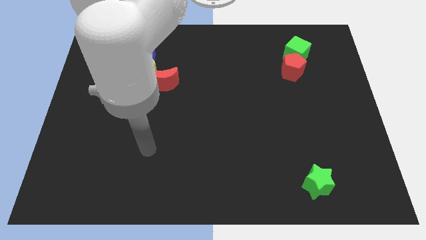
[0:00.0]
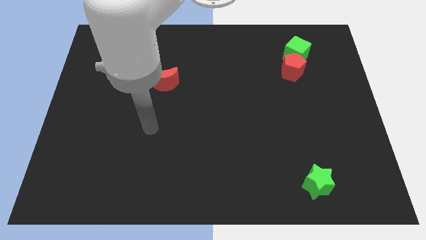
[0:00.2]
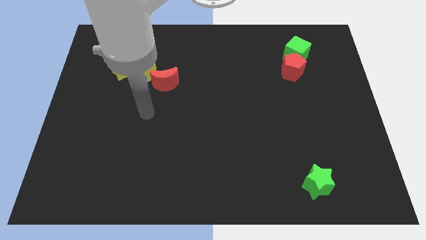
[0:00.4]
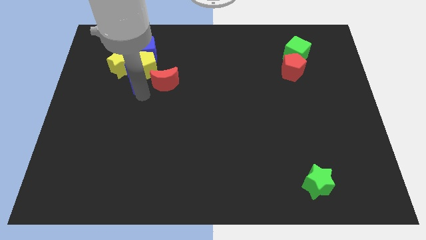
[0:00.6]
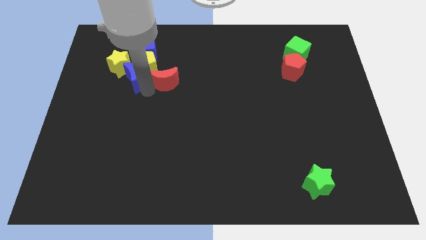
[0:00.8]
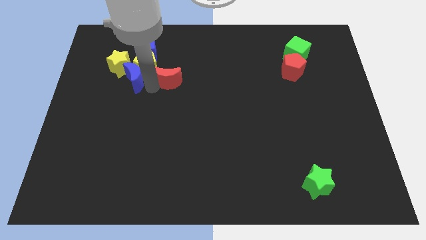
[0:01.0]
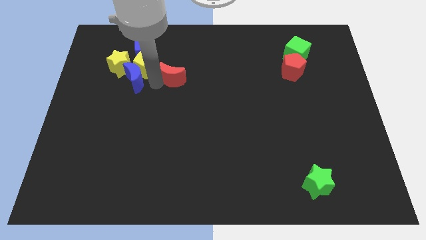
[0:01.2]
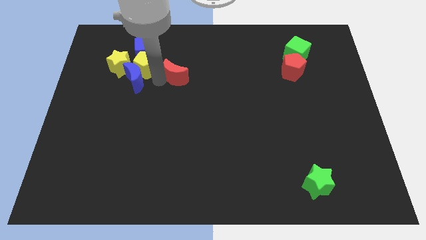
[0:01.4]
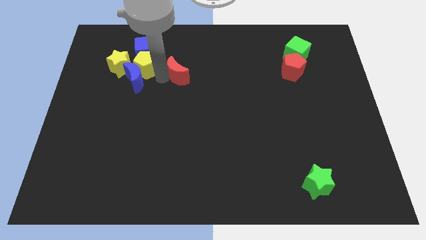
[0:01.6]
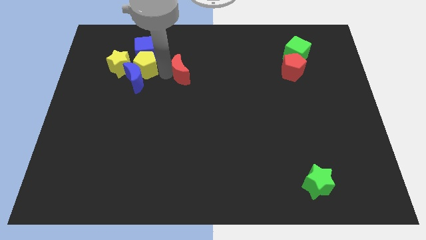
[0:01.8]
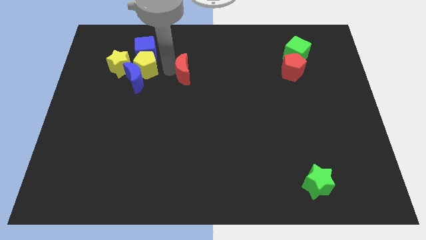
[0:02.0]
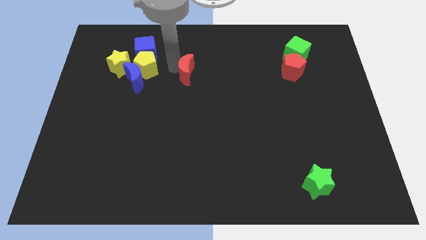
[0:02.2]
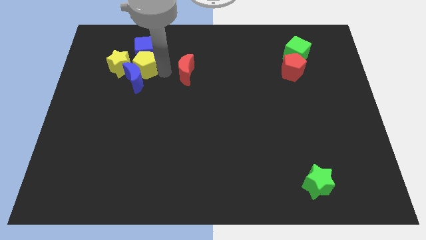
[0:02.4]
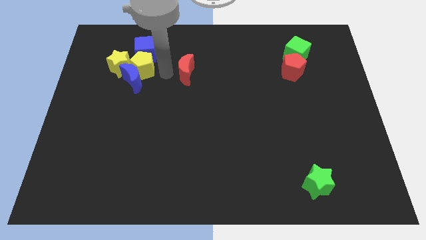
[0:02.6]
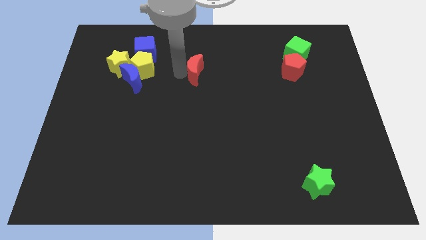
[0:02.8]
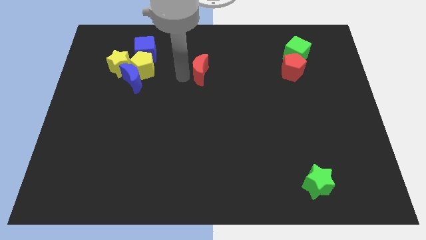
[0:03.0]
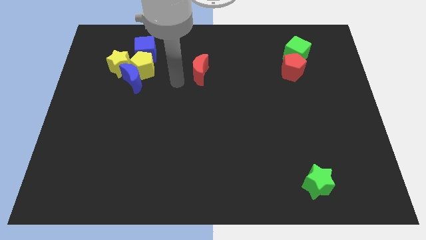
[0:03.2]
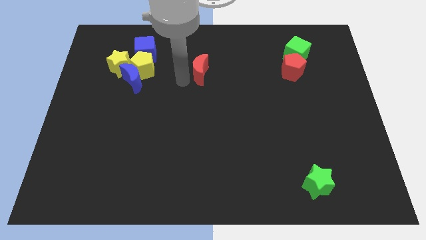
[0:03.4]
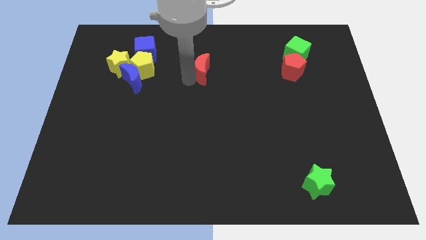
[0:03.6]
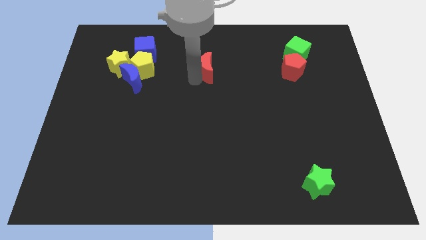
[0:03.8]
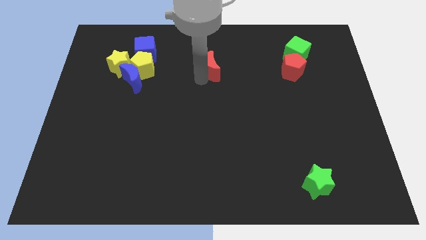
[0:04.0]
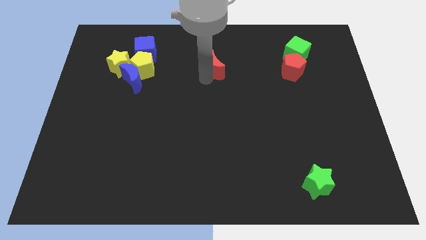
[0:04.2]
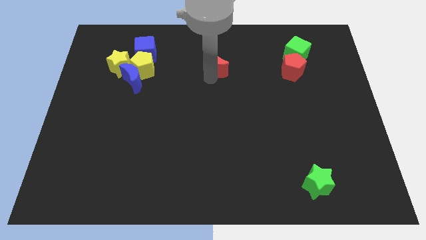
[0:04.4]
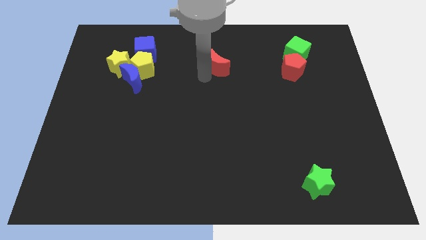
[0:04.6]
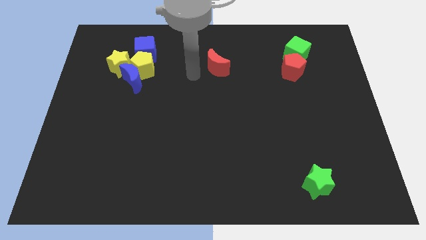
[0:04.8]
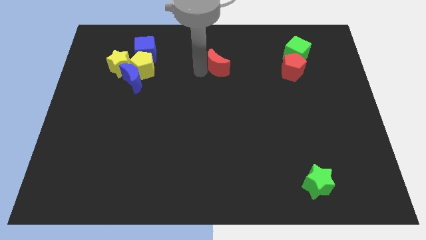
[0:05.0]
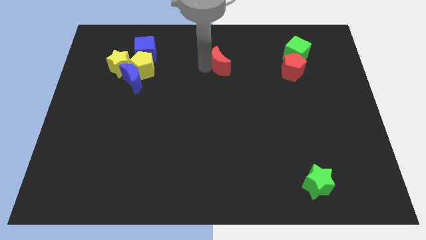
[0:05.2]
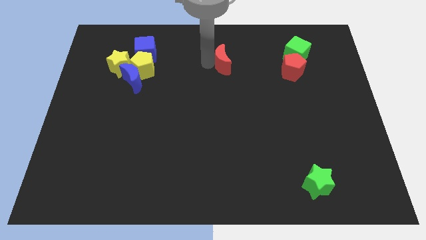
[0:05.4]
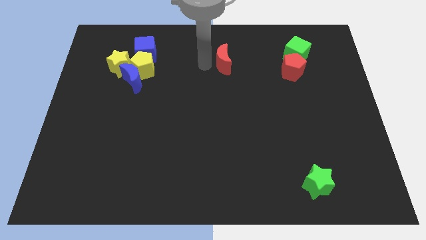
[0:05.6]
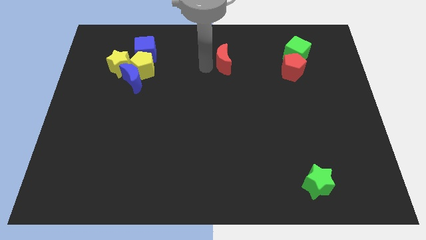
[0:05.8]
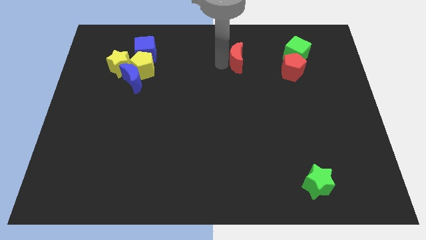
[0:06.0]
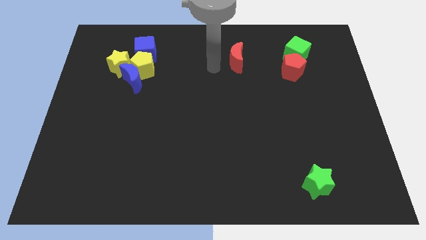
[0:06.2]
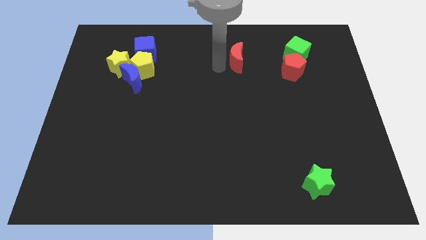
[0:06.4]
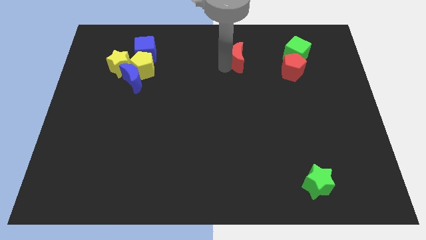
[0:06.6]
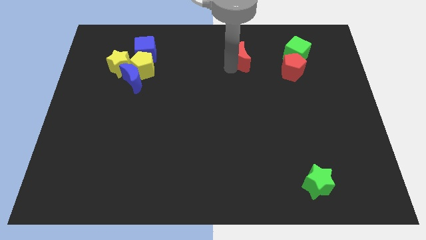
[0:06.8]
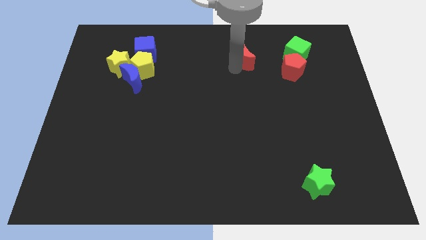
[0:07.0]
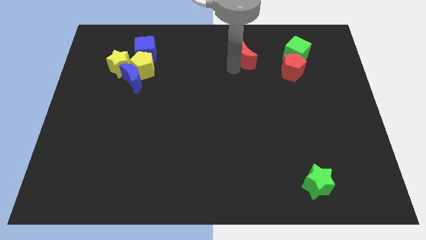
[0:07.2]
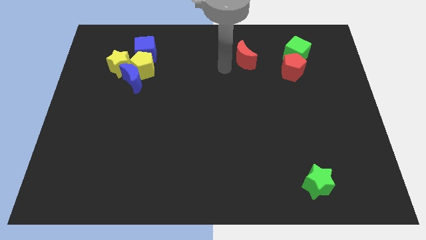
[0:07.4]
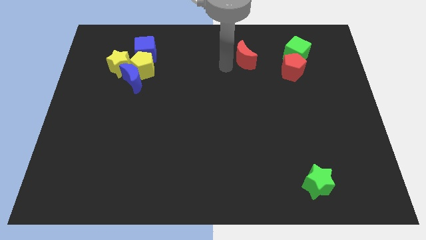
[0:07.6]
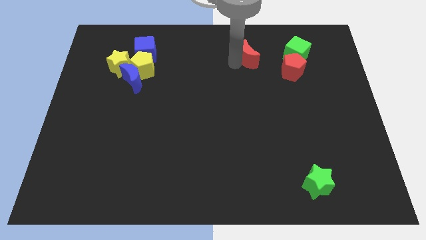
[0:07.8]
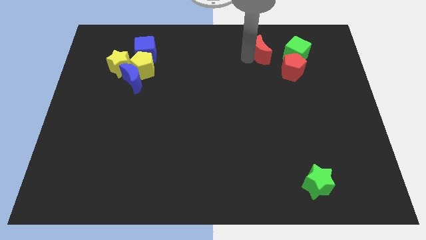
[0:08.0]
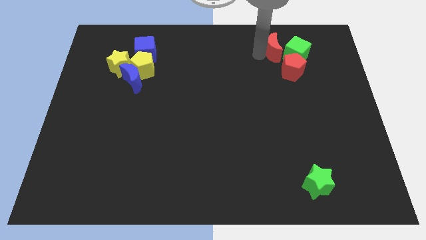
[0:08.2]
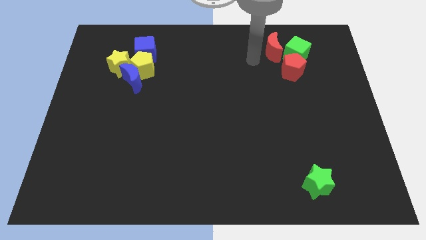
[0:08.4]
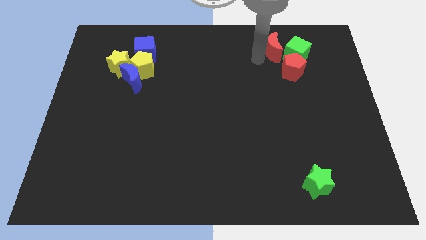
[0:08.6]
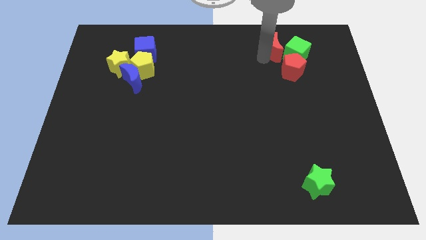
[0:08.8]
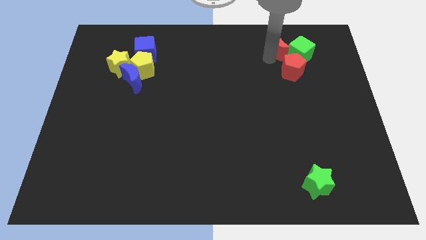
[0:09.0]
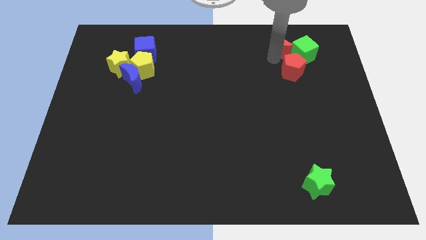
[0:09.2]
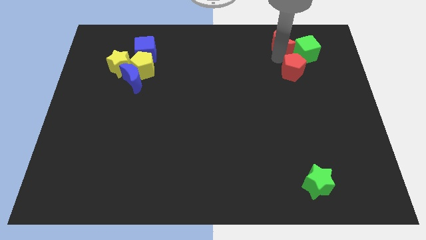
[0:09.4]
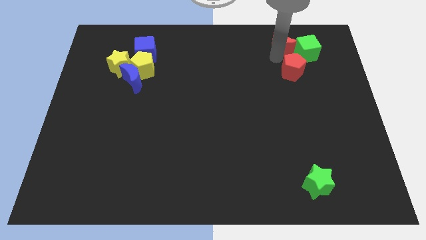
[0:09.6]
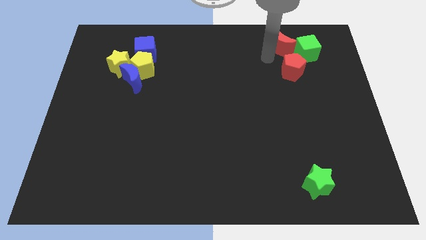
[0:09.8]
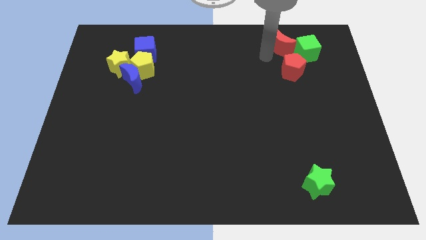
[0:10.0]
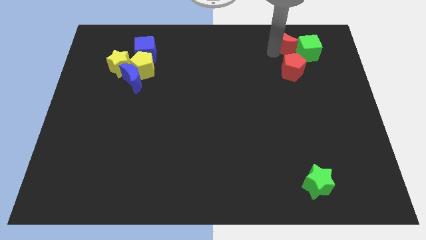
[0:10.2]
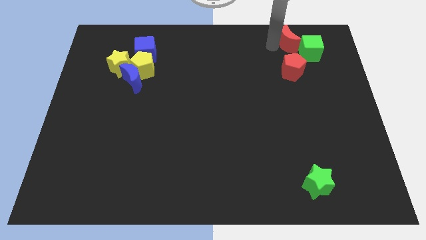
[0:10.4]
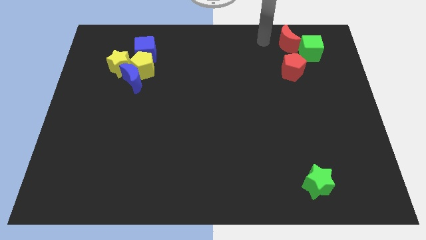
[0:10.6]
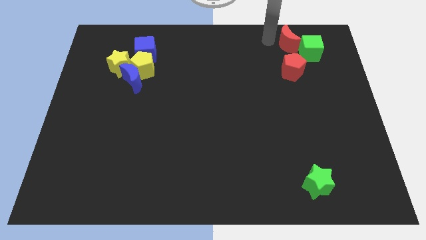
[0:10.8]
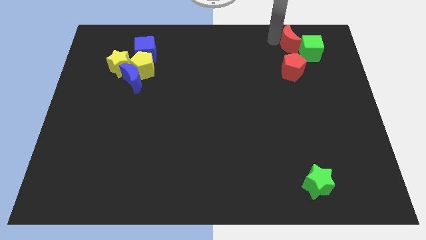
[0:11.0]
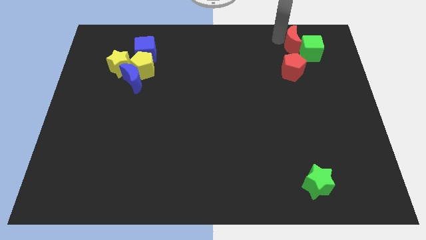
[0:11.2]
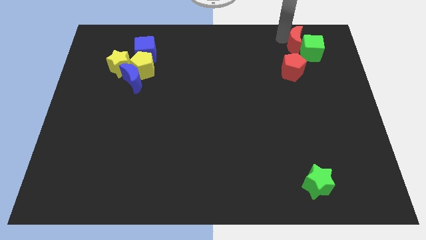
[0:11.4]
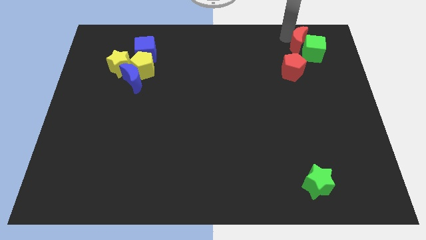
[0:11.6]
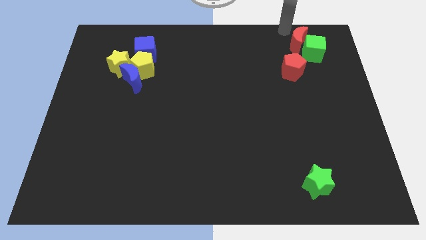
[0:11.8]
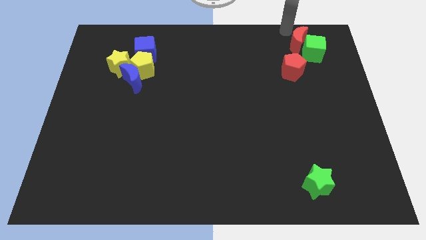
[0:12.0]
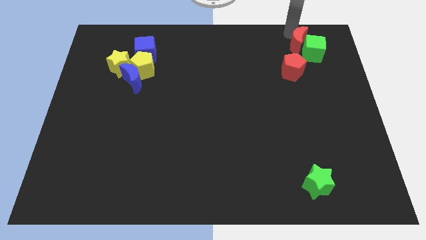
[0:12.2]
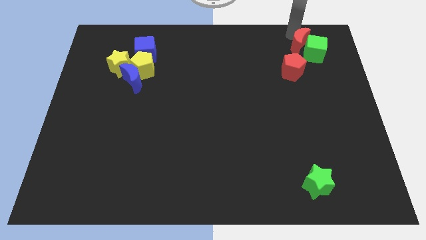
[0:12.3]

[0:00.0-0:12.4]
push the red moon to the top right of the red pentagon

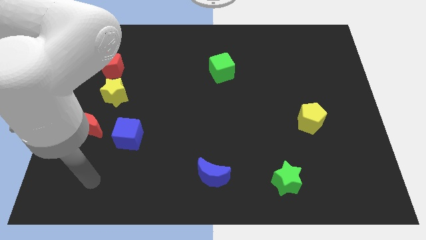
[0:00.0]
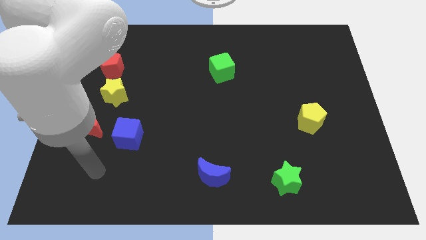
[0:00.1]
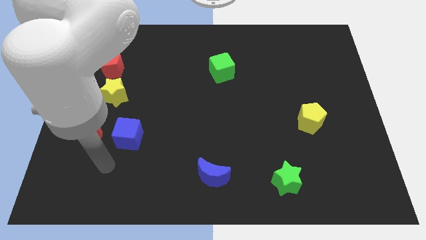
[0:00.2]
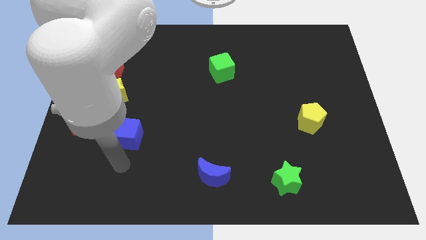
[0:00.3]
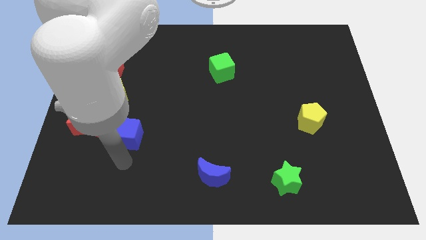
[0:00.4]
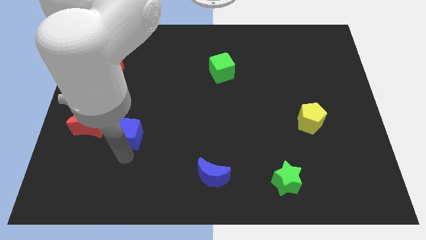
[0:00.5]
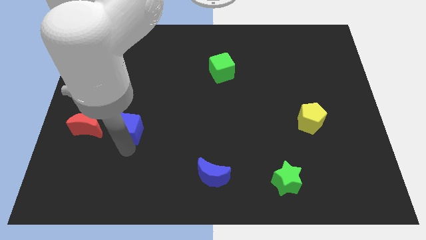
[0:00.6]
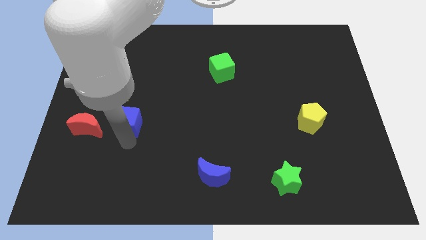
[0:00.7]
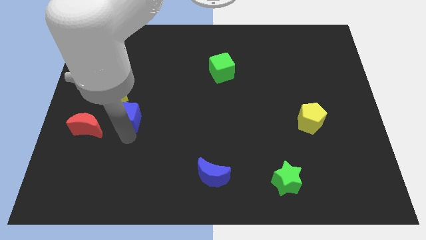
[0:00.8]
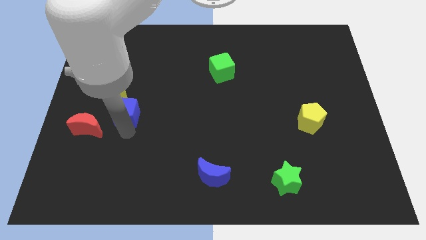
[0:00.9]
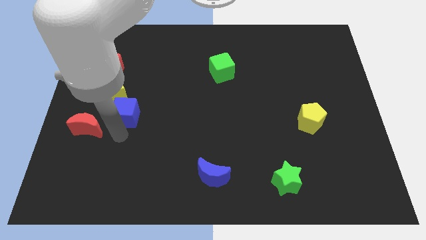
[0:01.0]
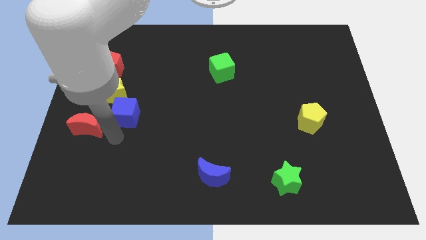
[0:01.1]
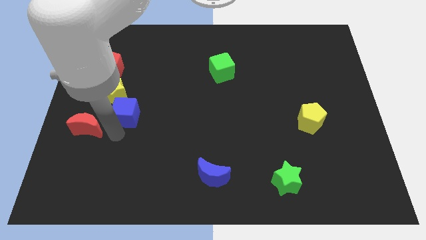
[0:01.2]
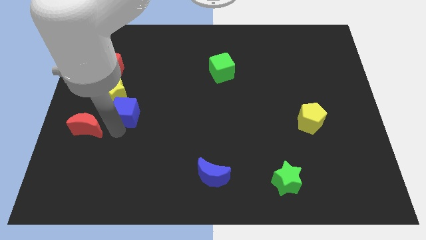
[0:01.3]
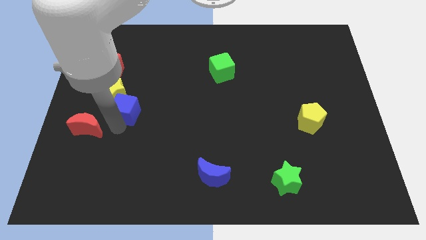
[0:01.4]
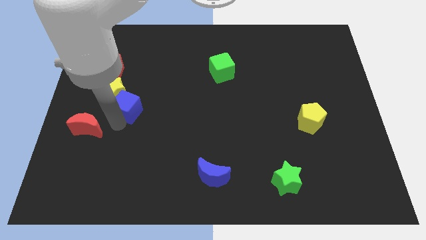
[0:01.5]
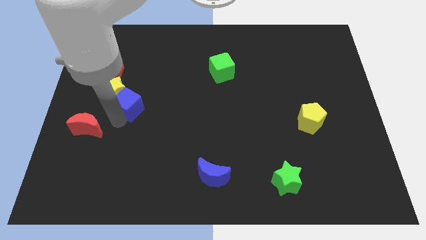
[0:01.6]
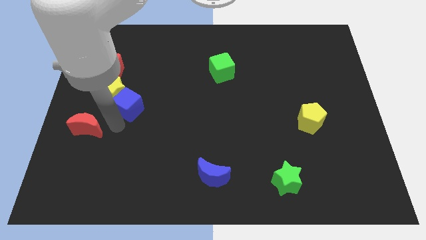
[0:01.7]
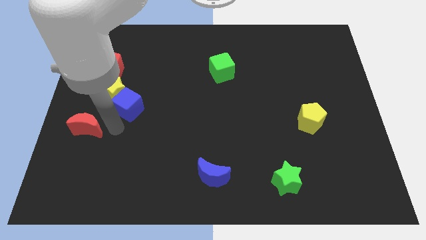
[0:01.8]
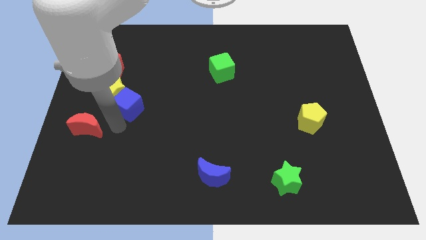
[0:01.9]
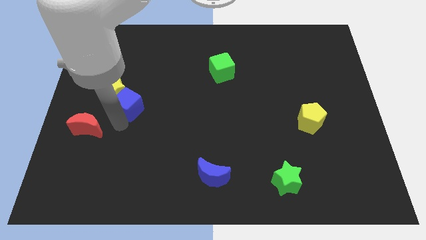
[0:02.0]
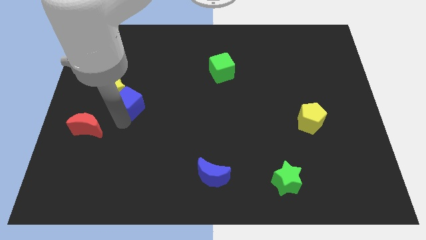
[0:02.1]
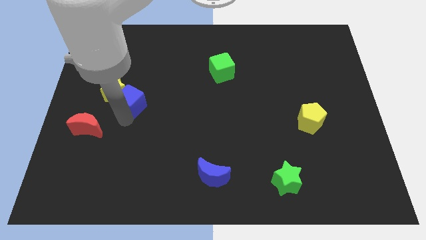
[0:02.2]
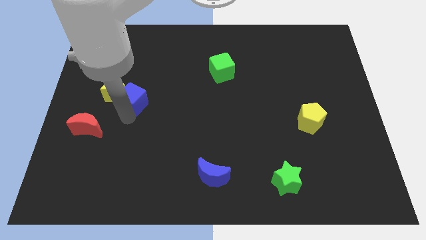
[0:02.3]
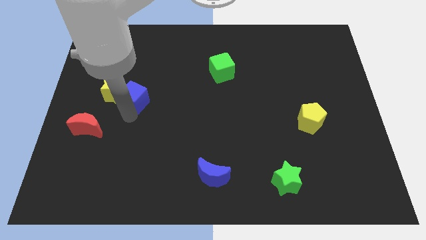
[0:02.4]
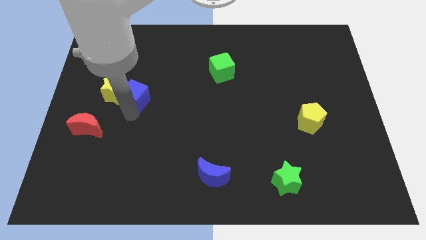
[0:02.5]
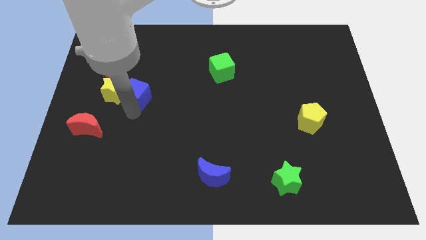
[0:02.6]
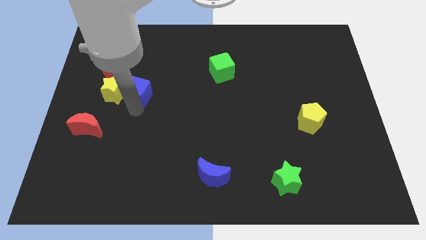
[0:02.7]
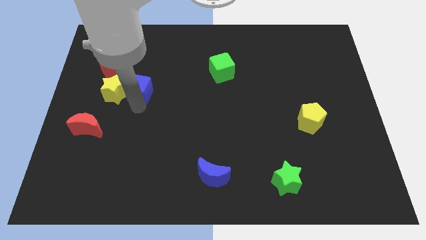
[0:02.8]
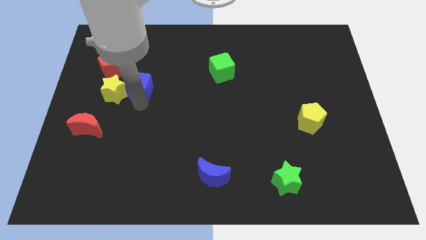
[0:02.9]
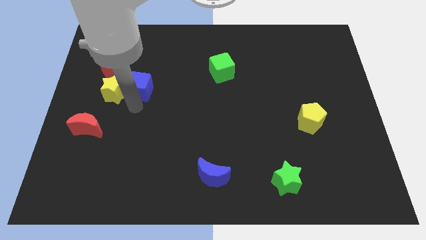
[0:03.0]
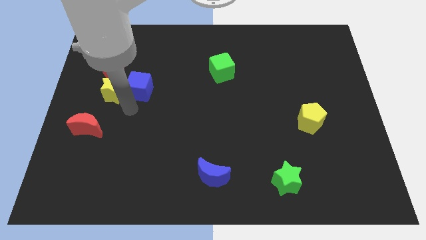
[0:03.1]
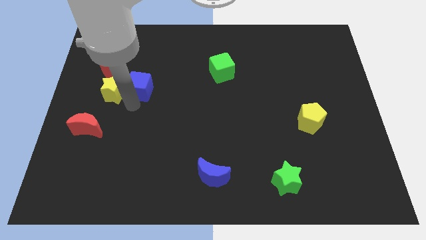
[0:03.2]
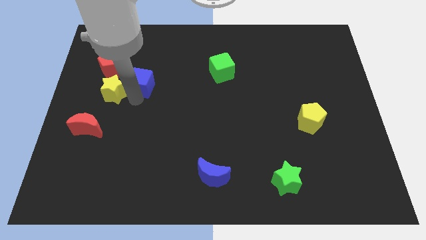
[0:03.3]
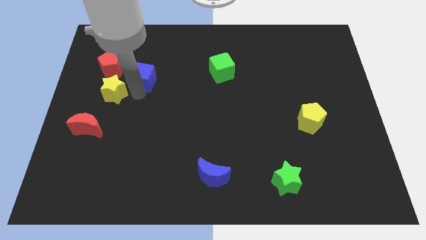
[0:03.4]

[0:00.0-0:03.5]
push the blue cube right of the red pentagon
